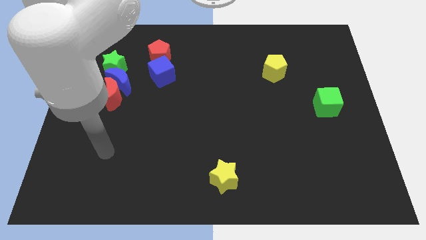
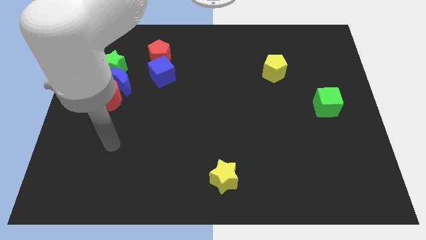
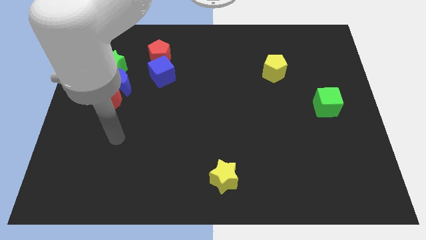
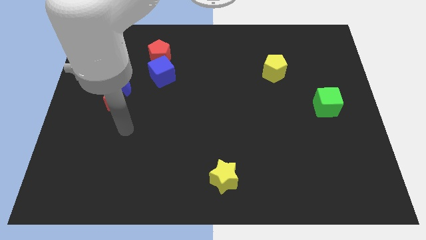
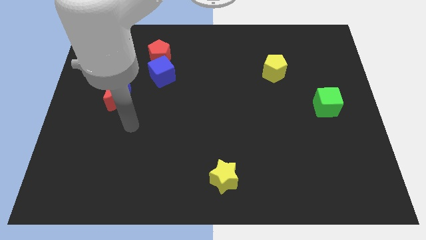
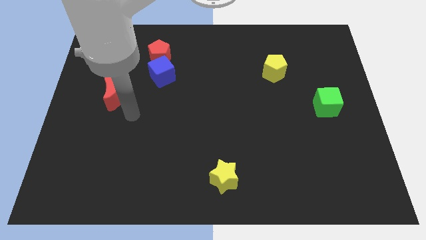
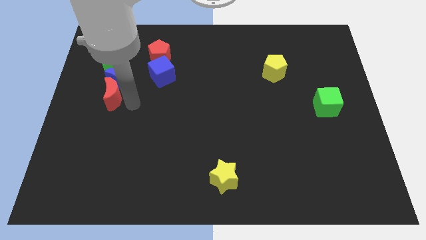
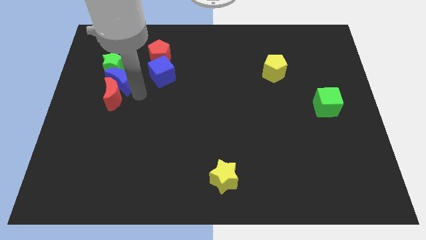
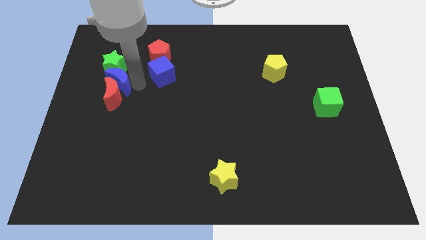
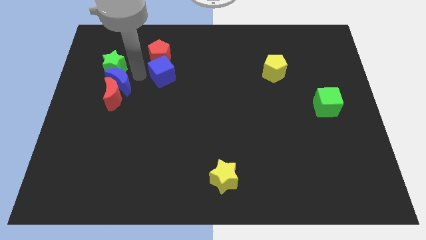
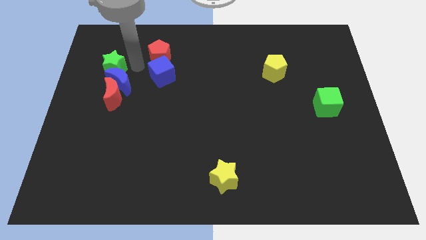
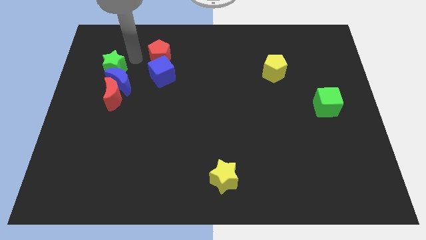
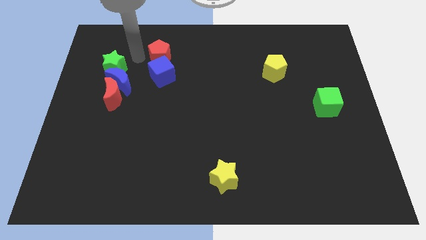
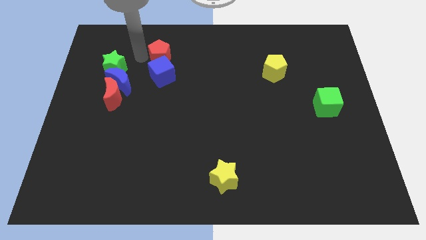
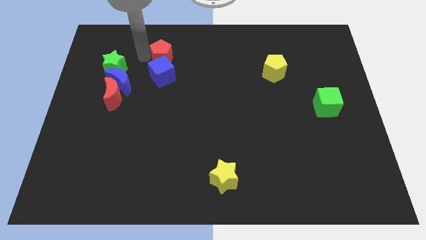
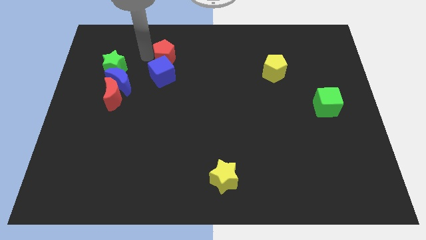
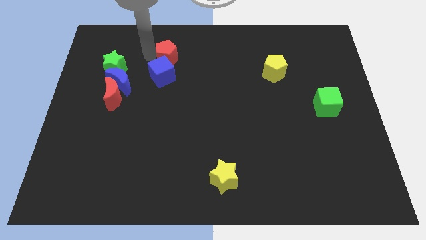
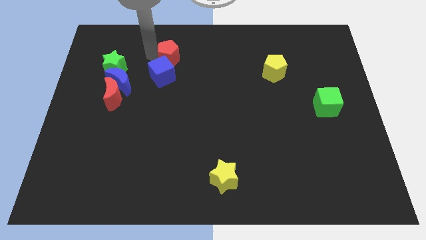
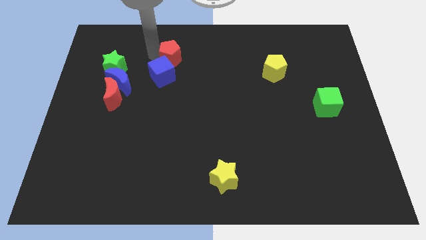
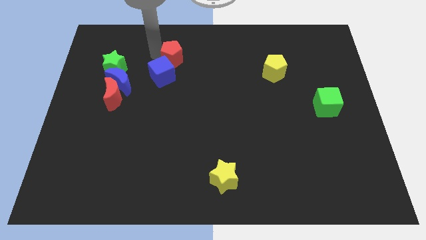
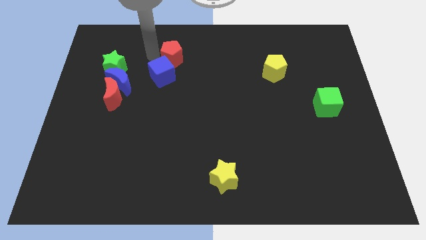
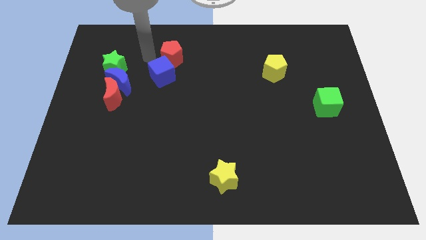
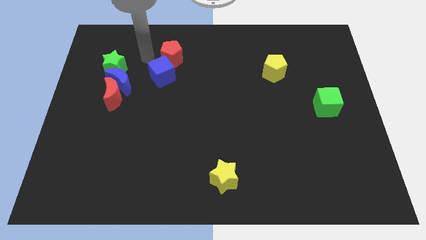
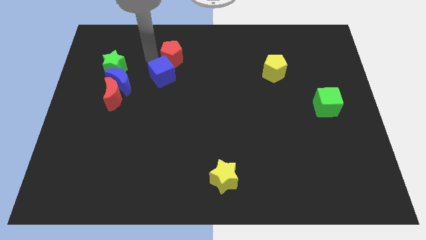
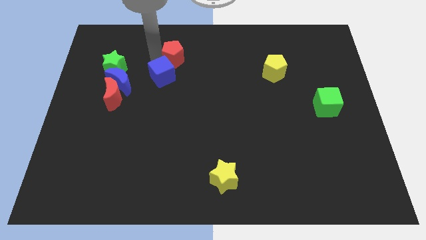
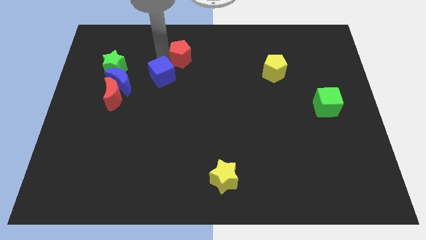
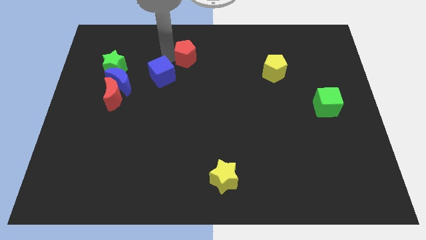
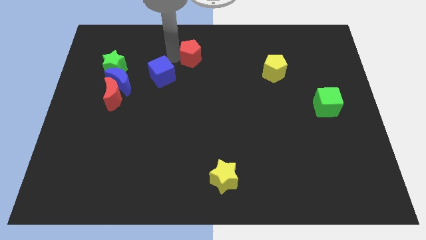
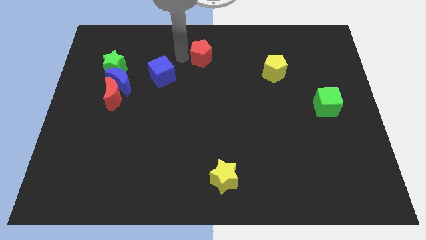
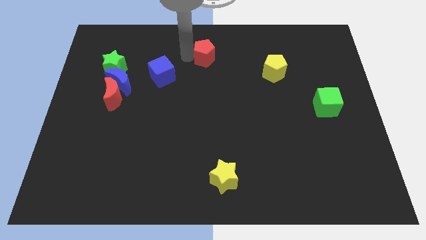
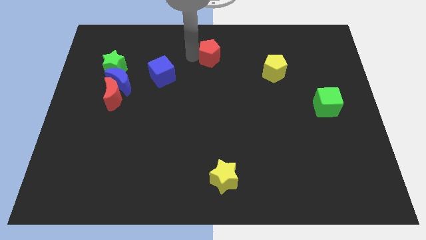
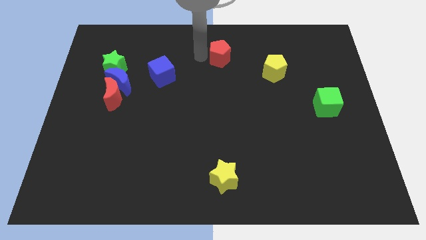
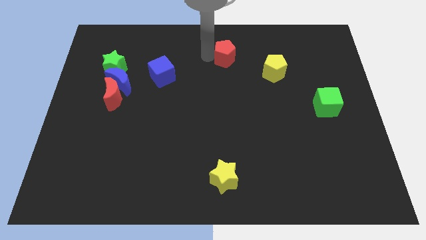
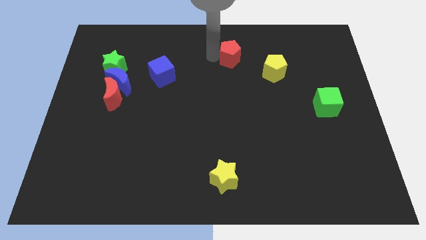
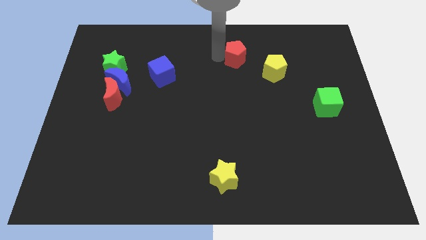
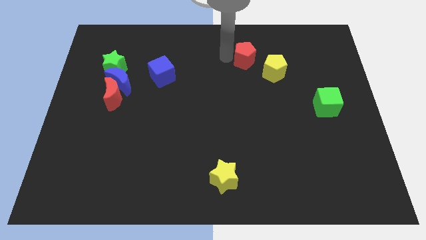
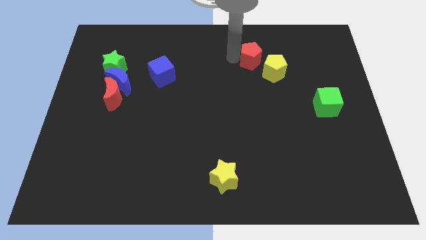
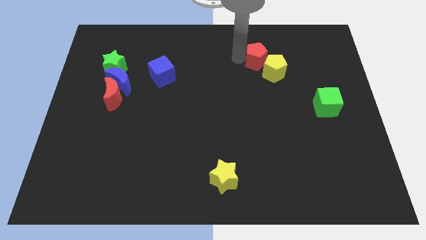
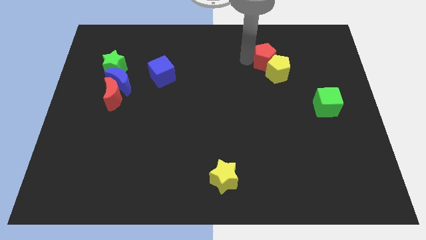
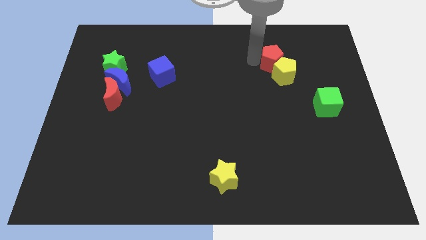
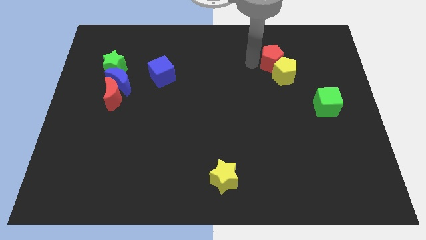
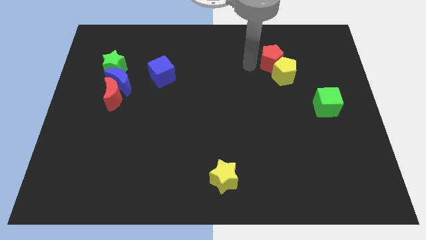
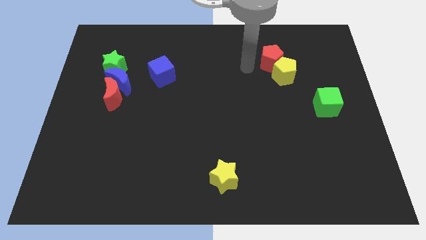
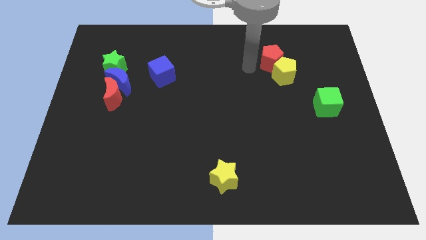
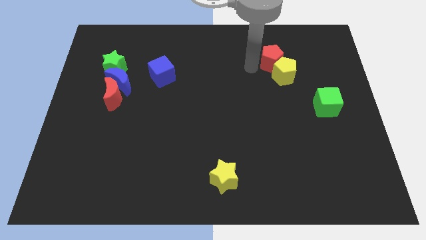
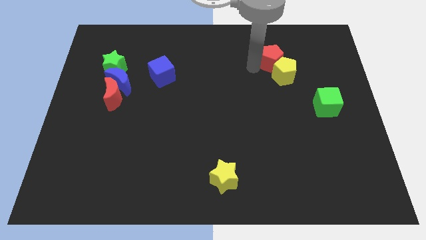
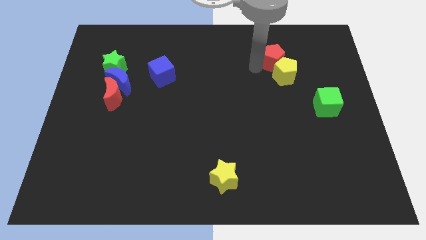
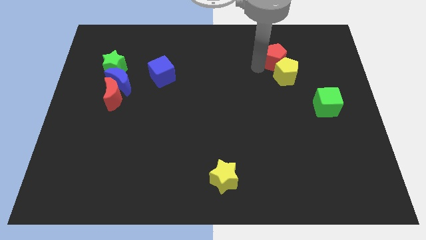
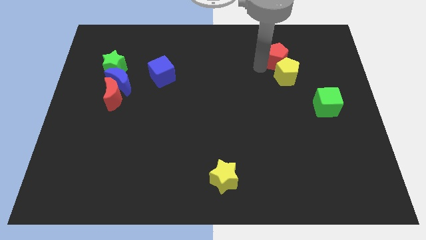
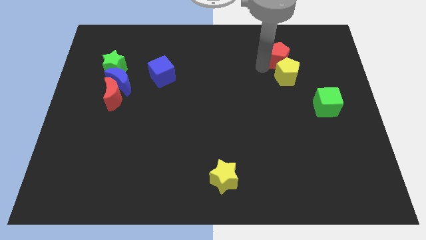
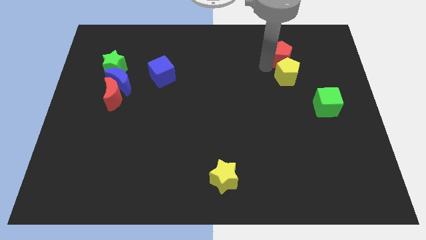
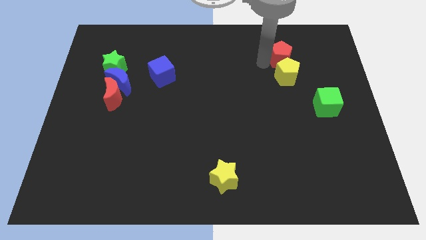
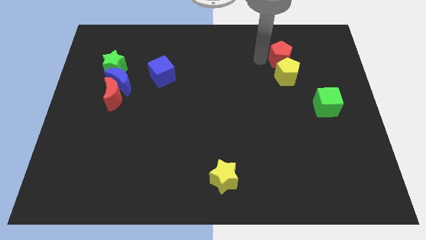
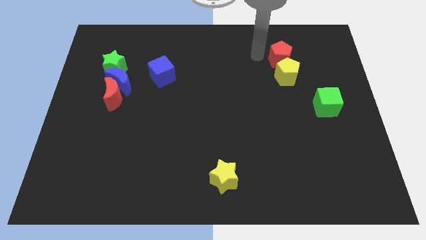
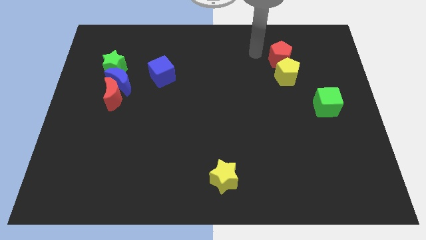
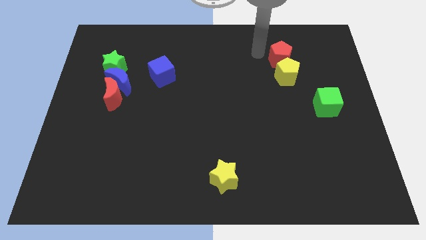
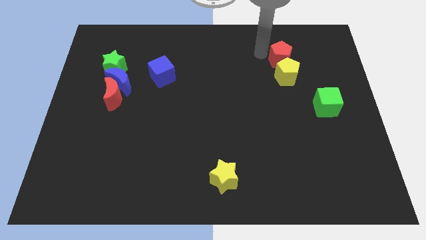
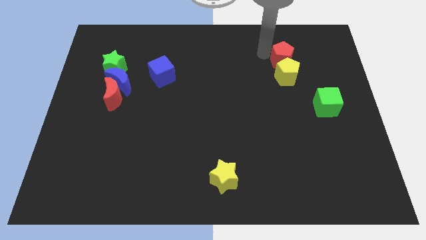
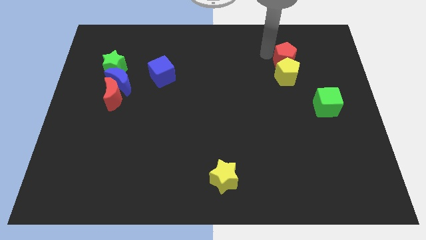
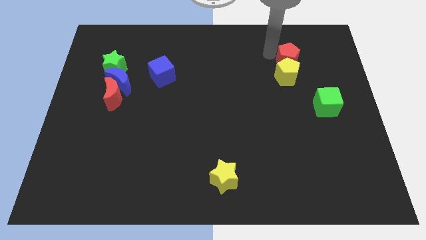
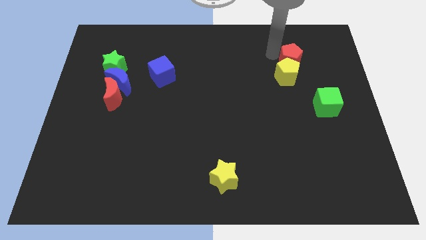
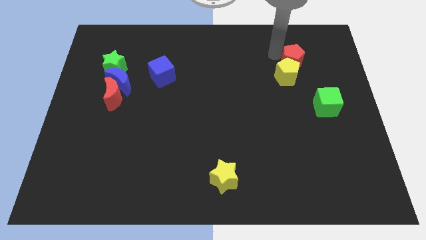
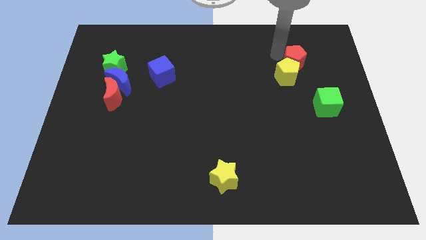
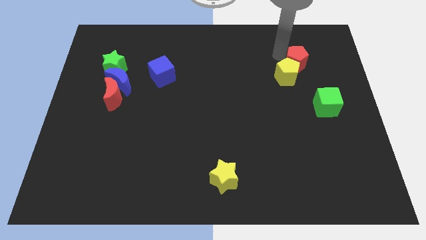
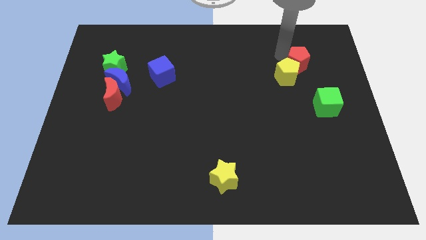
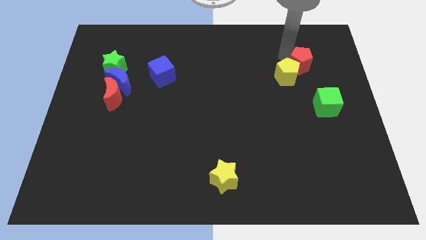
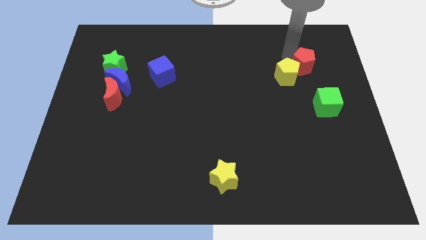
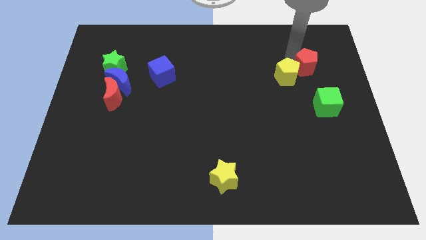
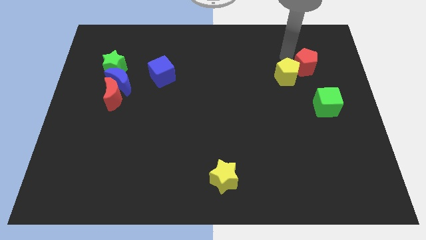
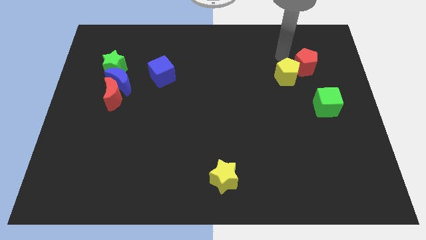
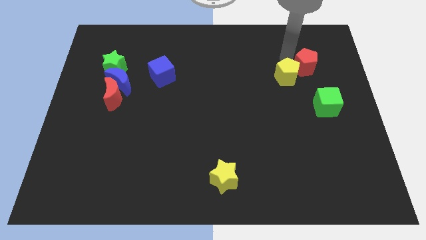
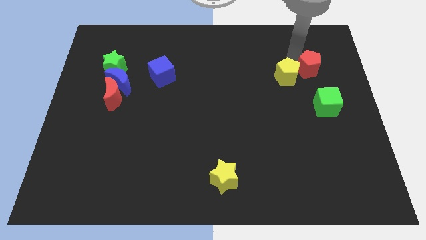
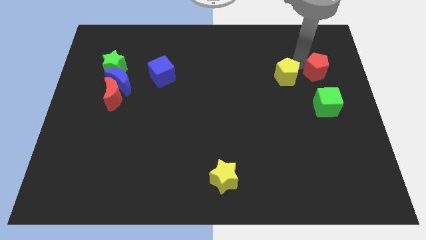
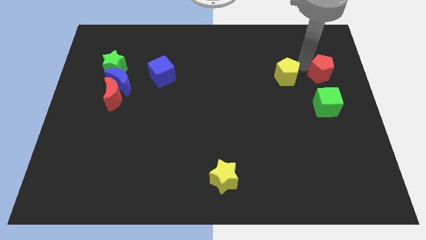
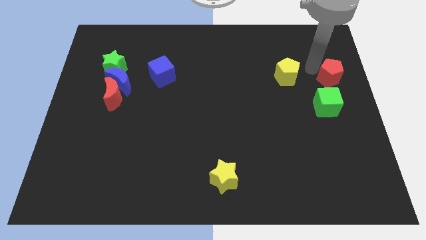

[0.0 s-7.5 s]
move the red pentagon to the right side of the board
